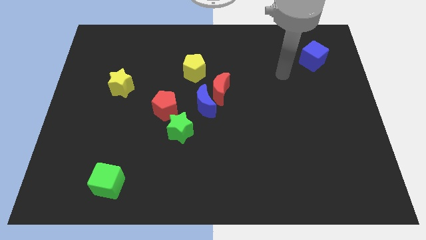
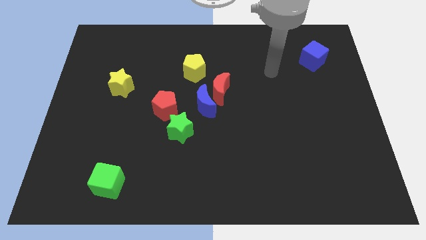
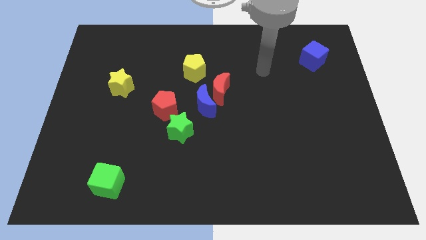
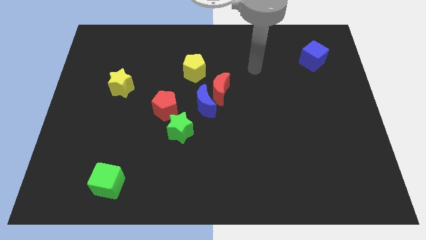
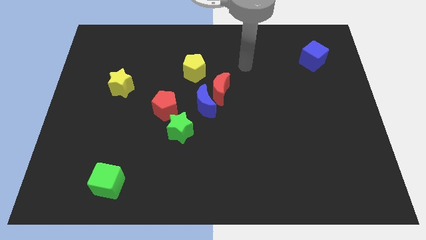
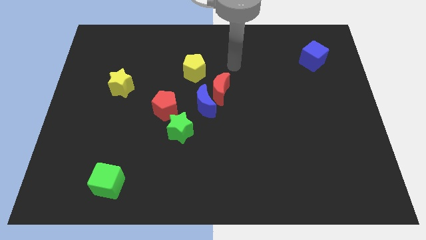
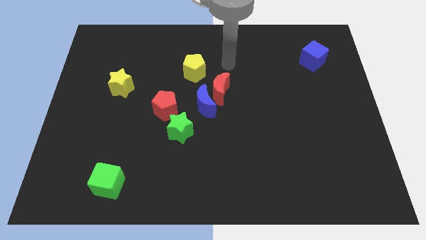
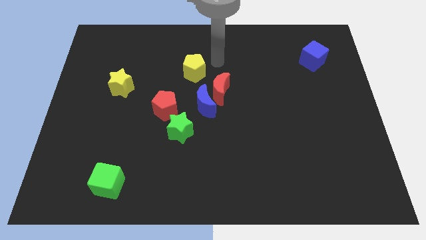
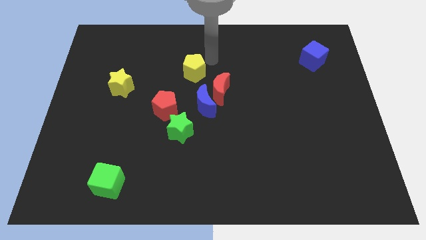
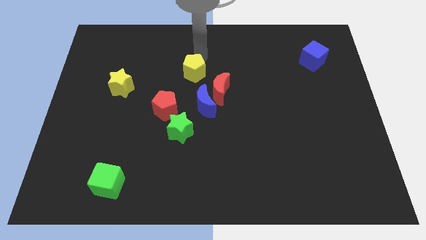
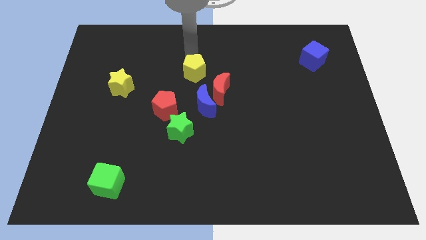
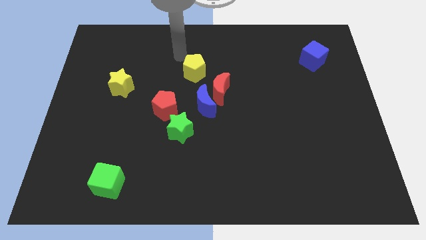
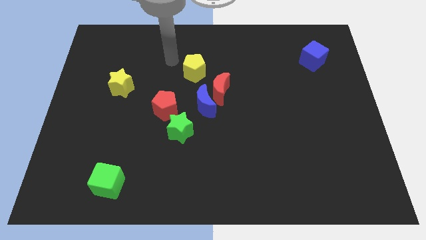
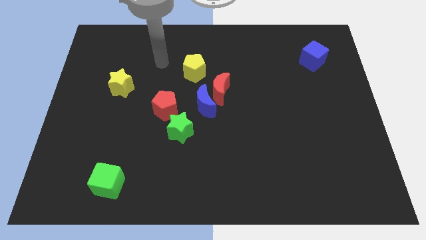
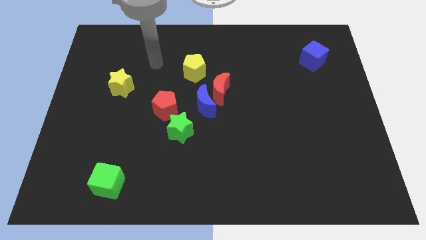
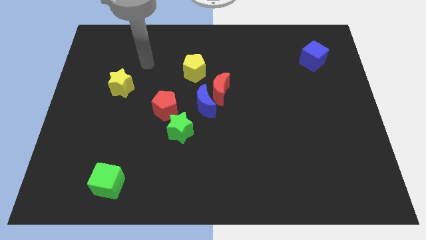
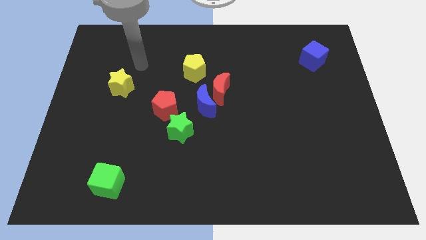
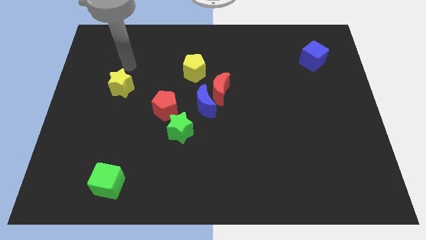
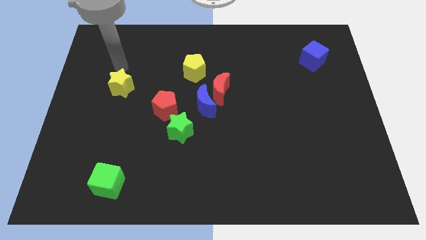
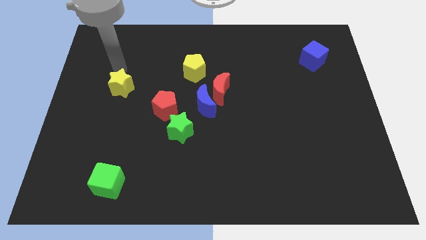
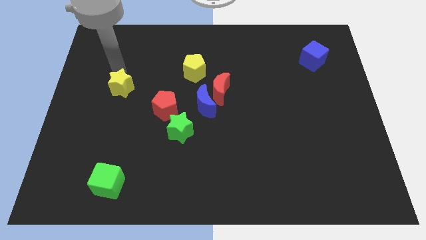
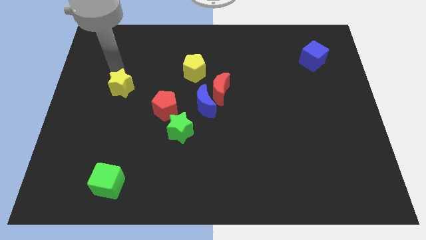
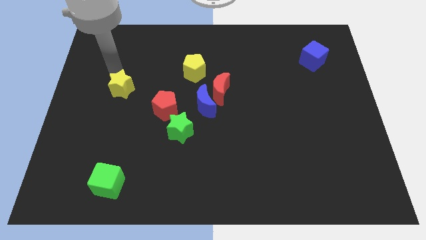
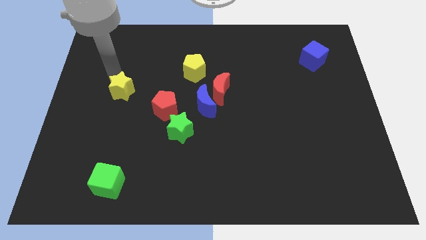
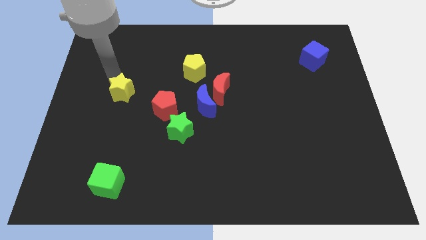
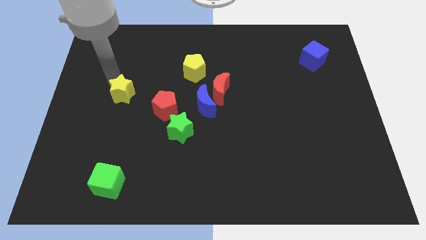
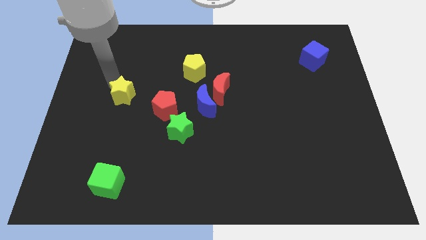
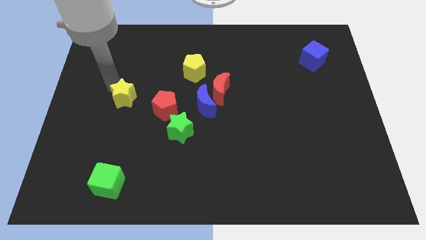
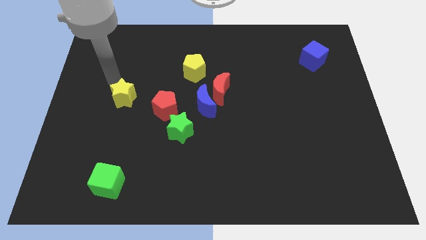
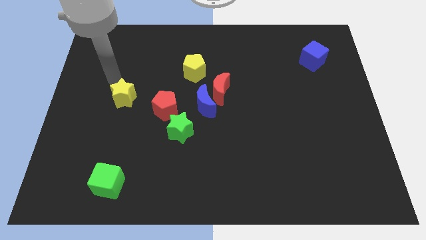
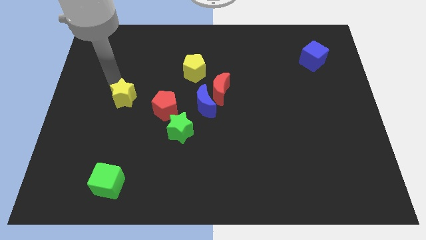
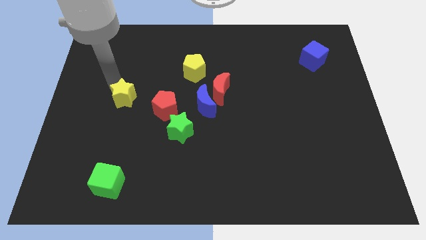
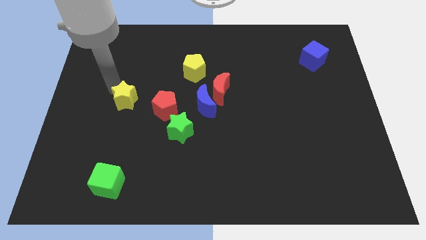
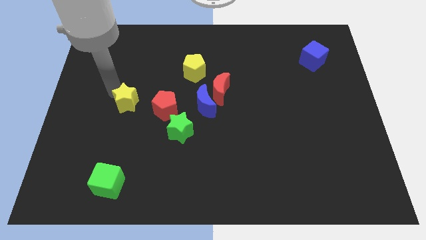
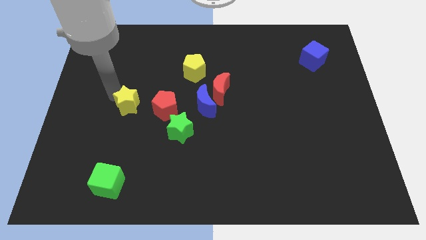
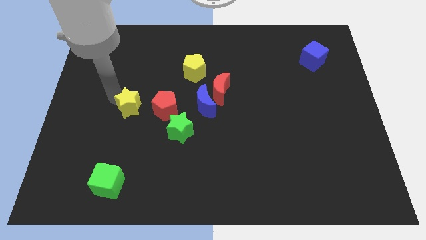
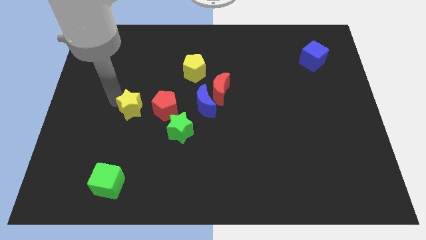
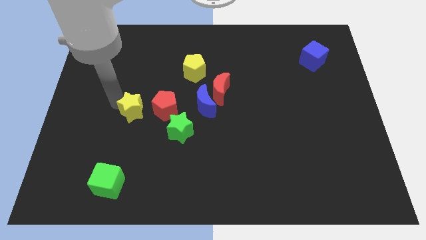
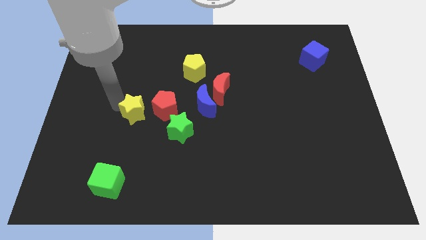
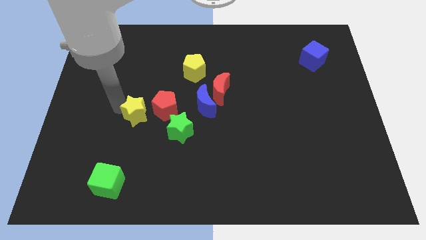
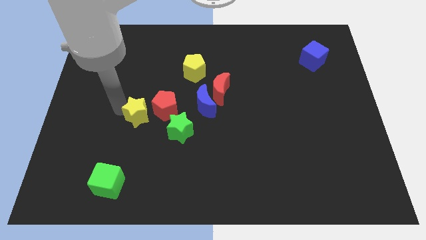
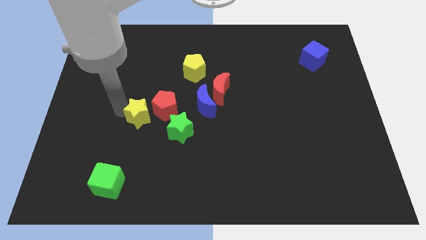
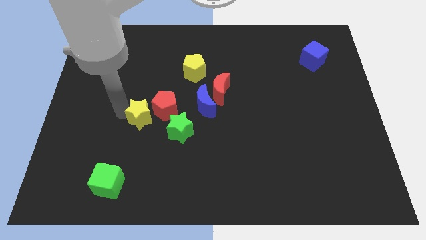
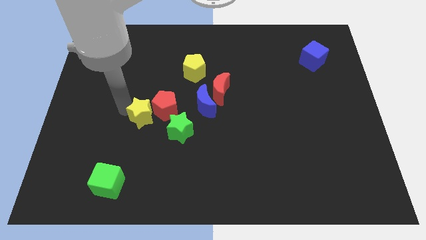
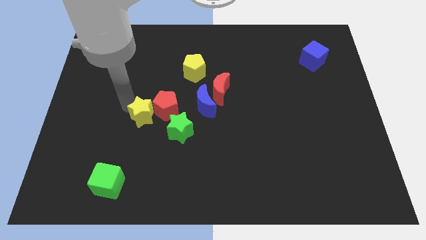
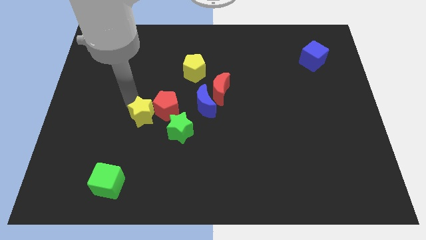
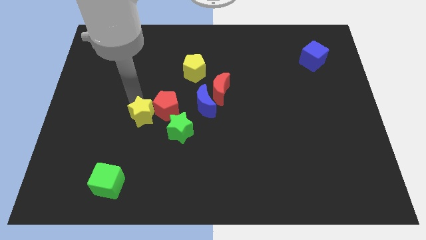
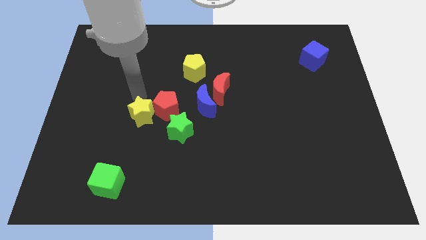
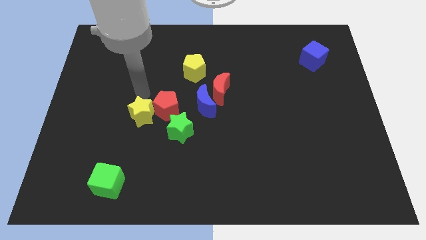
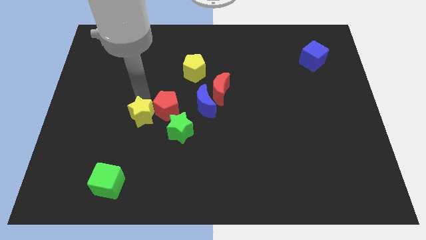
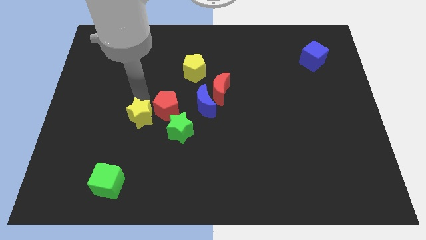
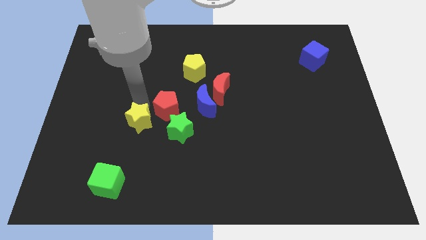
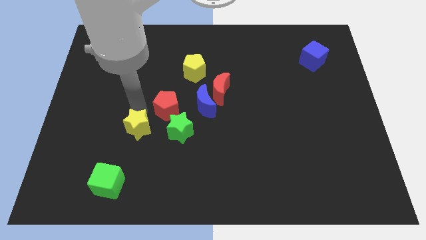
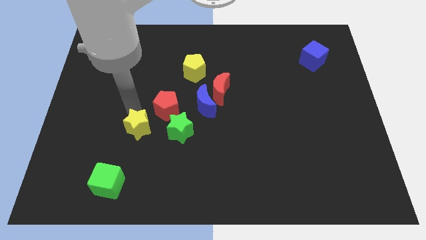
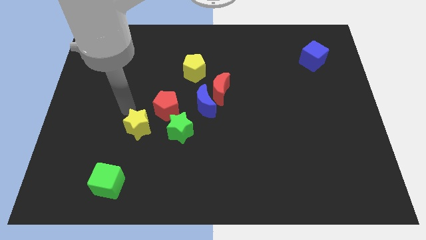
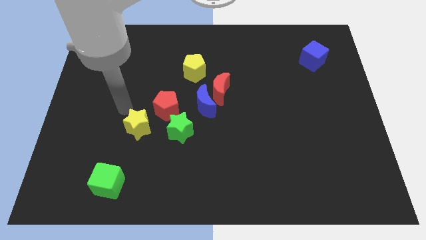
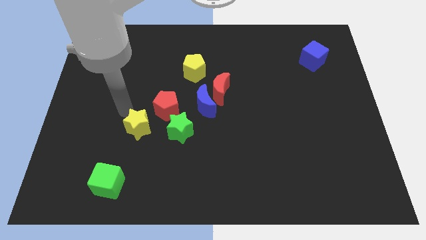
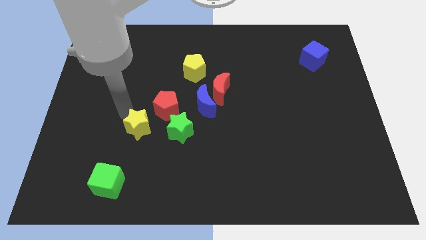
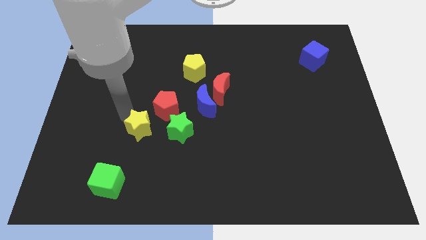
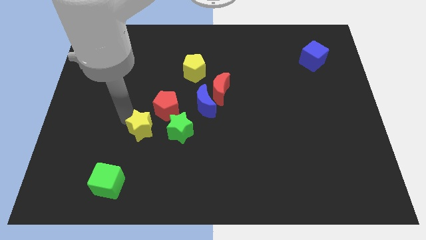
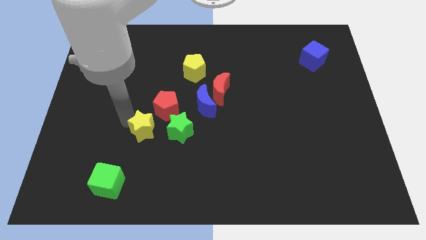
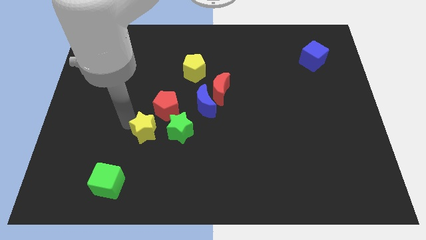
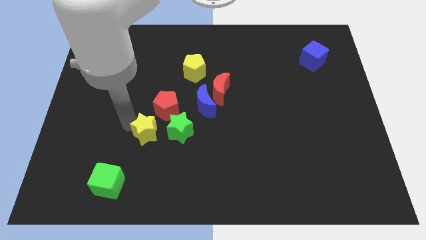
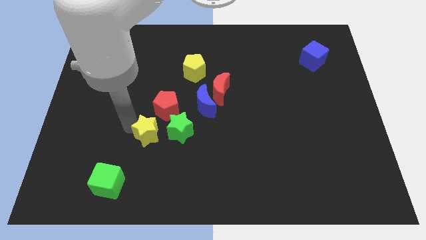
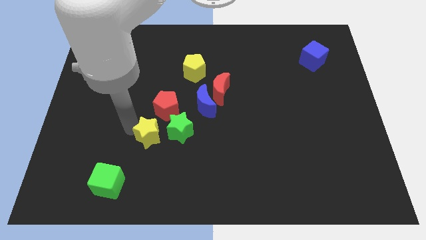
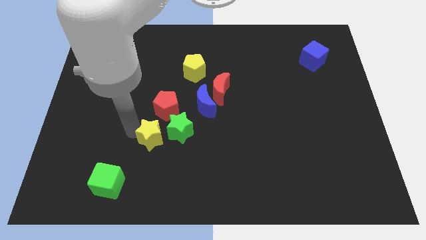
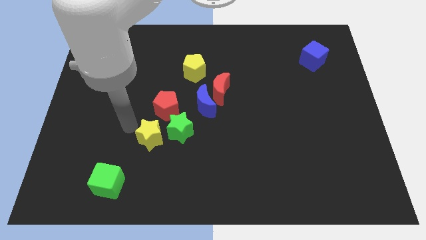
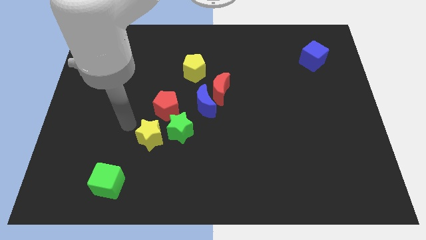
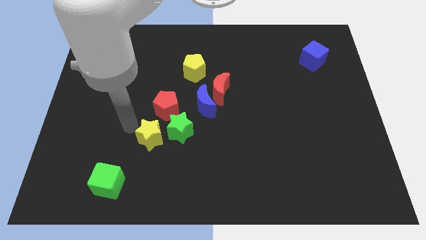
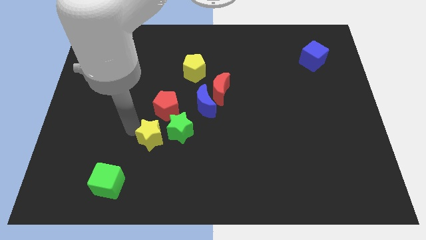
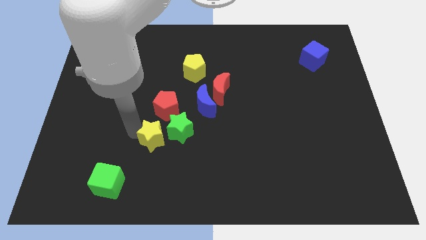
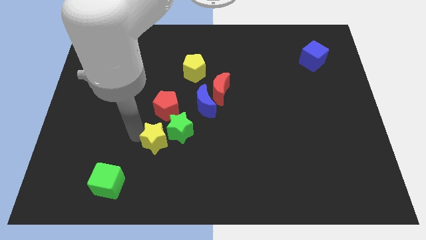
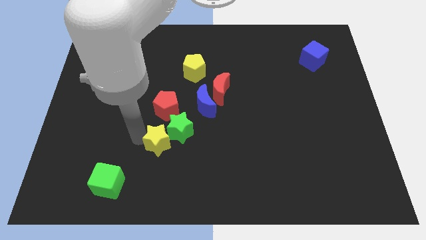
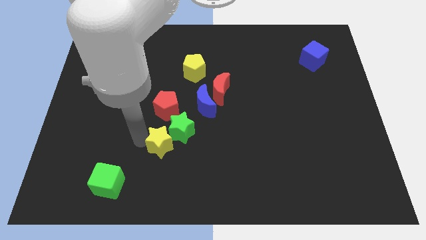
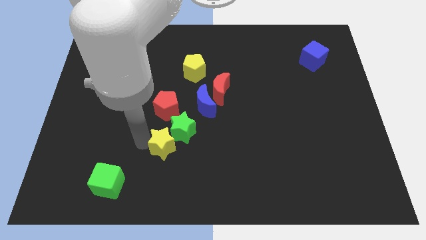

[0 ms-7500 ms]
slide the yellow star downwards and right

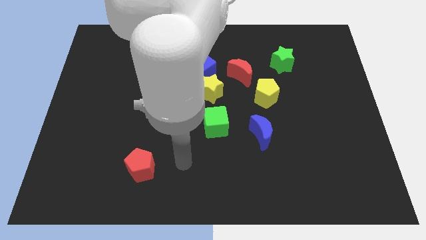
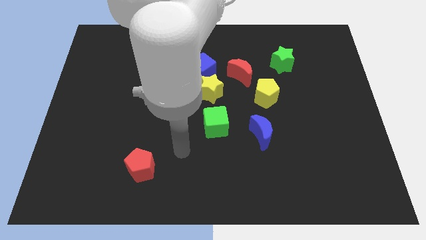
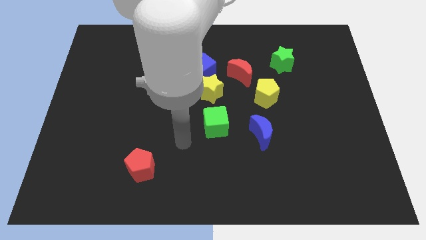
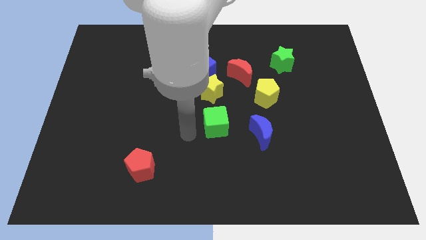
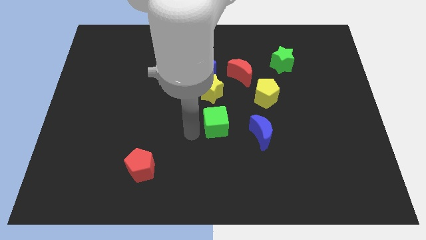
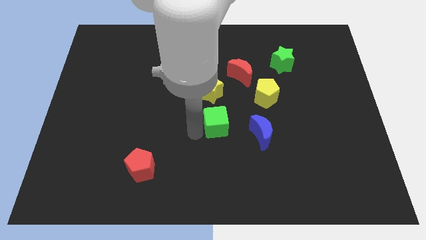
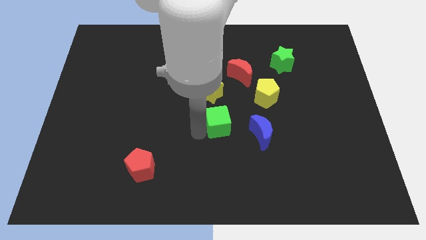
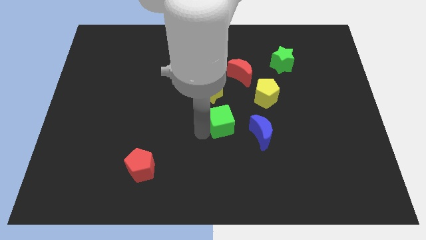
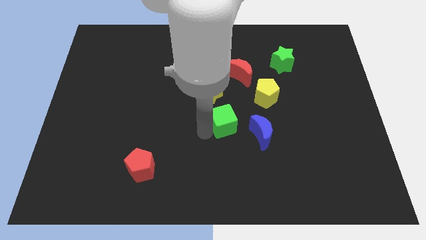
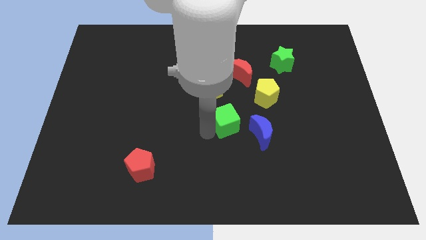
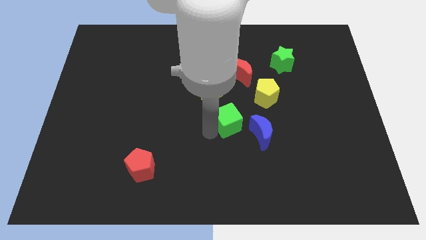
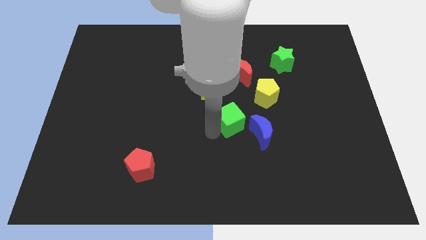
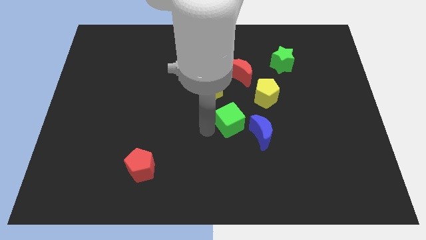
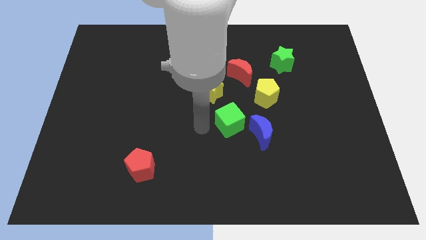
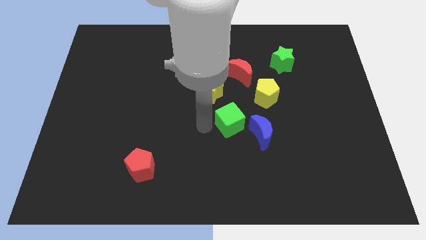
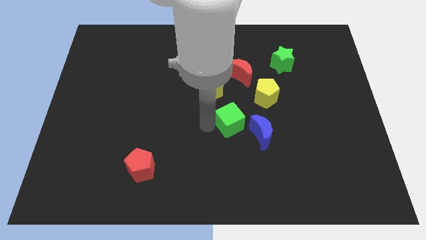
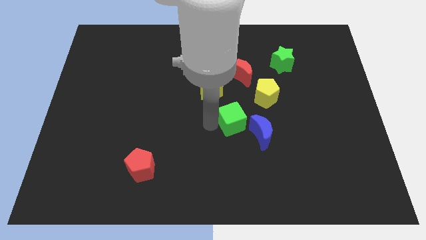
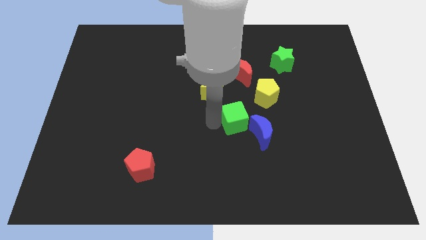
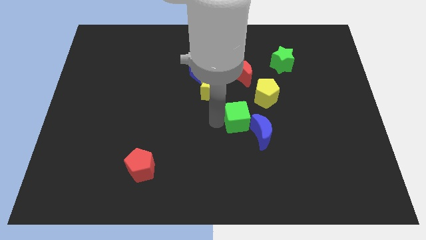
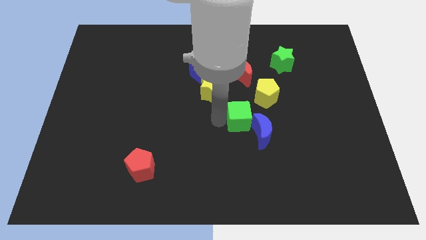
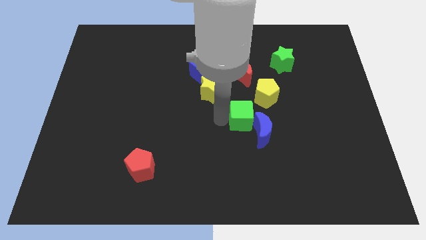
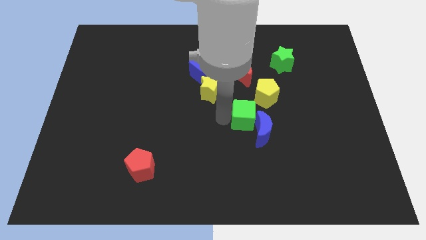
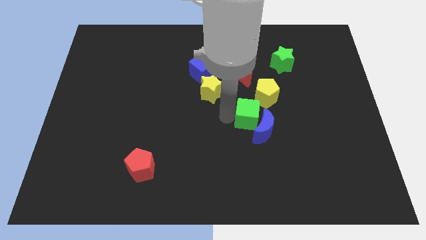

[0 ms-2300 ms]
slide the green cube right slightly
